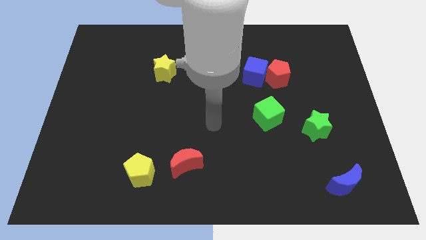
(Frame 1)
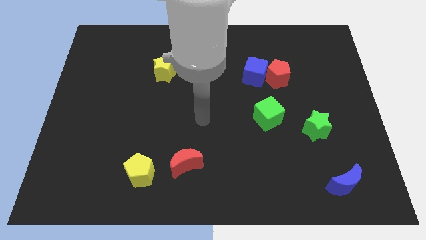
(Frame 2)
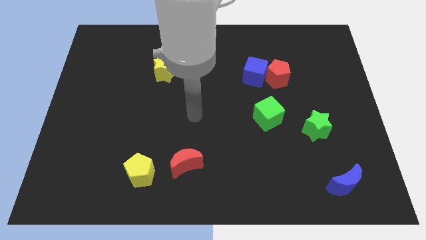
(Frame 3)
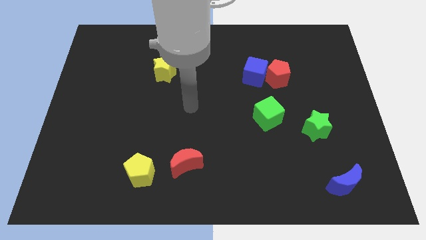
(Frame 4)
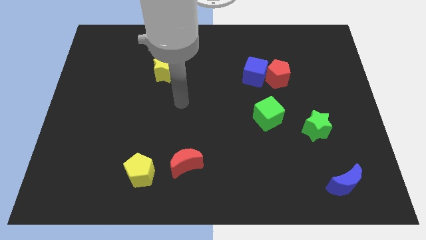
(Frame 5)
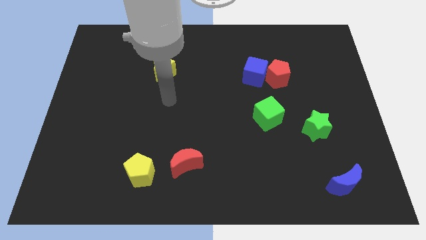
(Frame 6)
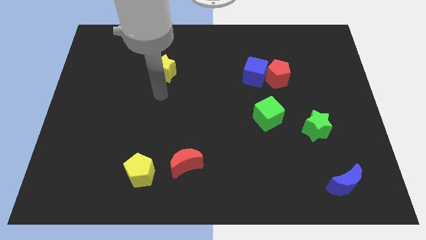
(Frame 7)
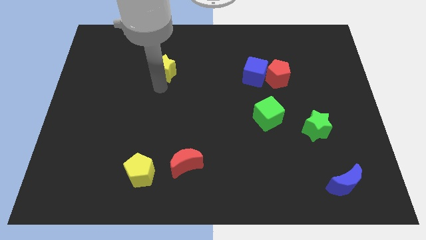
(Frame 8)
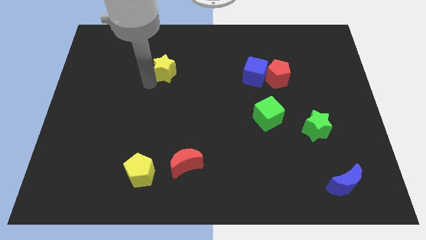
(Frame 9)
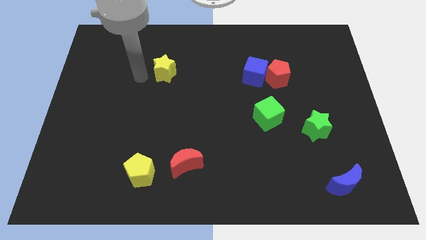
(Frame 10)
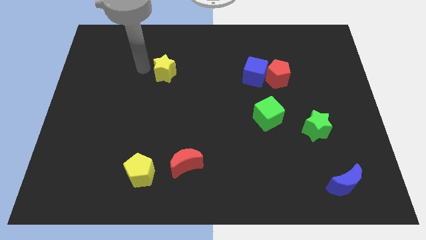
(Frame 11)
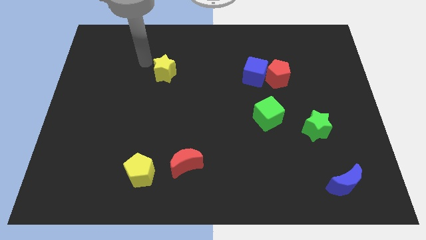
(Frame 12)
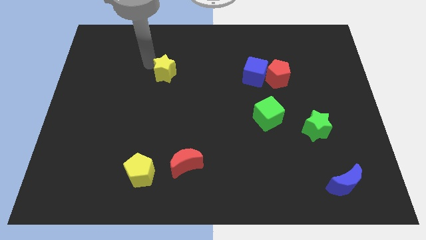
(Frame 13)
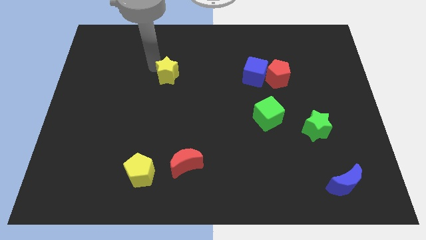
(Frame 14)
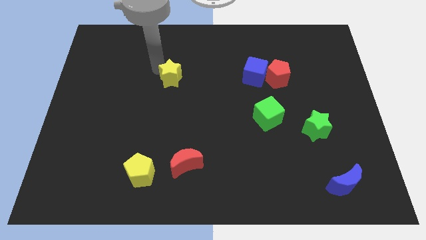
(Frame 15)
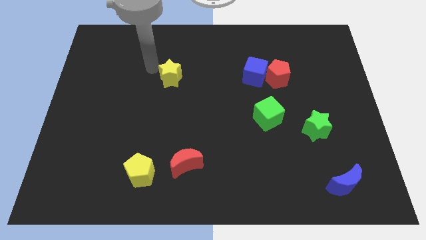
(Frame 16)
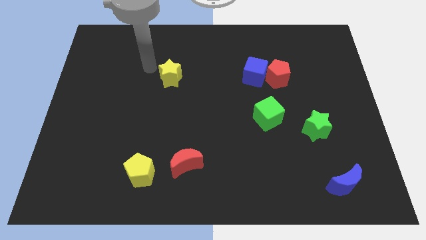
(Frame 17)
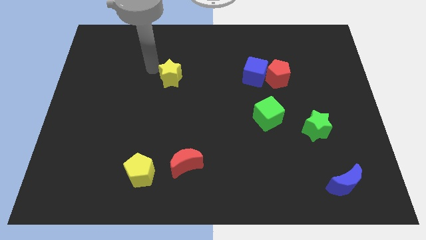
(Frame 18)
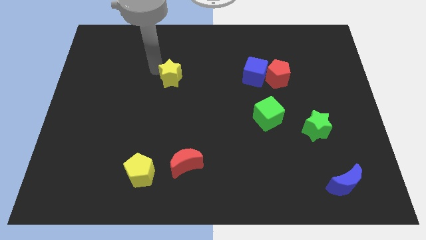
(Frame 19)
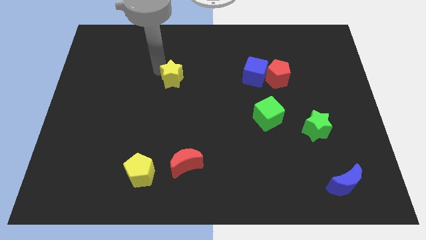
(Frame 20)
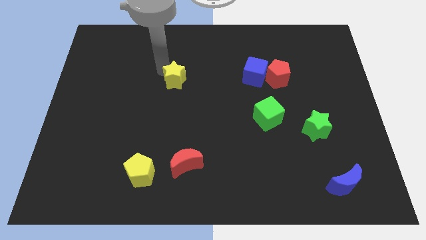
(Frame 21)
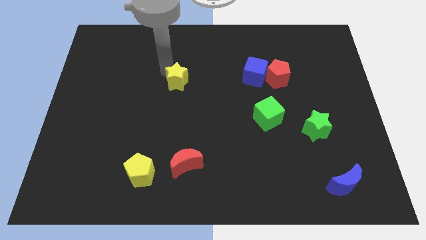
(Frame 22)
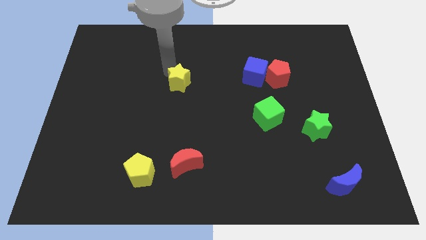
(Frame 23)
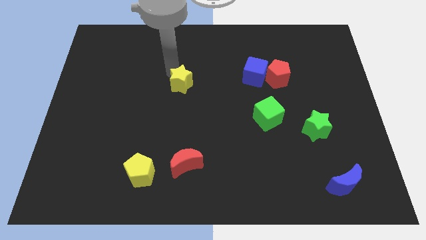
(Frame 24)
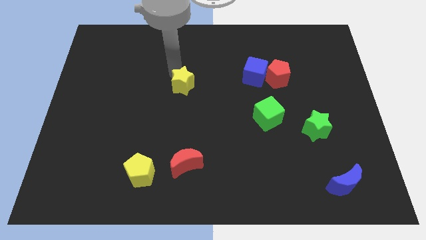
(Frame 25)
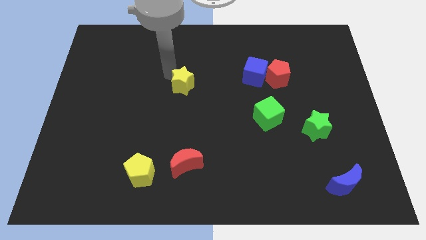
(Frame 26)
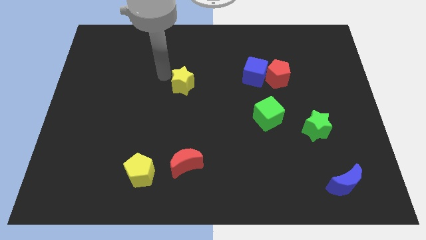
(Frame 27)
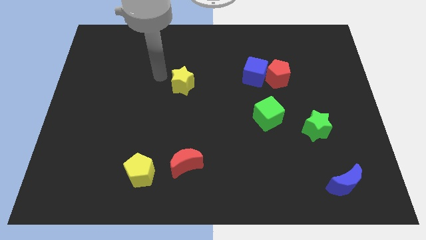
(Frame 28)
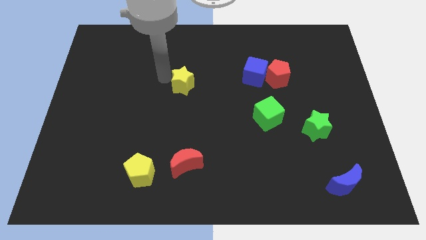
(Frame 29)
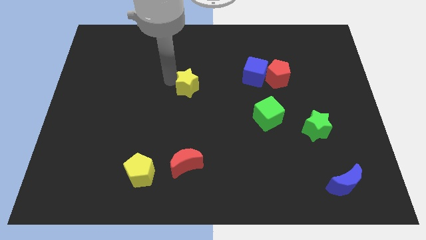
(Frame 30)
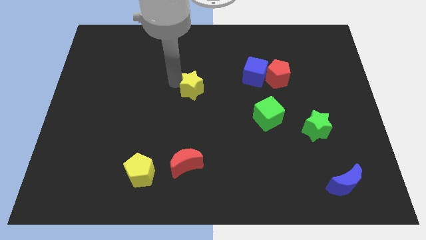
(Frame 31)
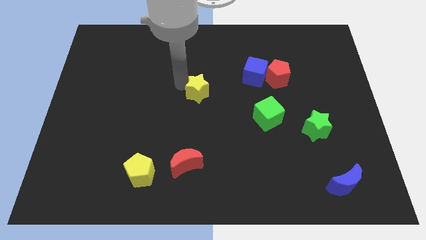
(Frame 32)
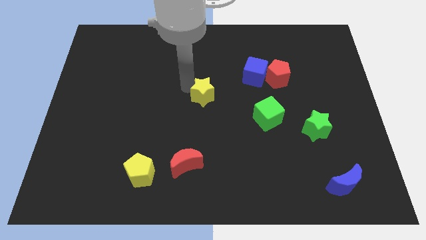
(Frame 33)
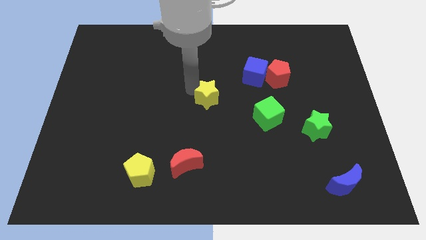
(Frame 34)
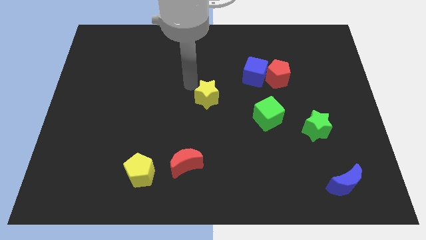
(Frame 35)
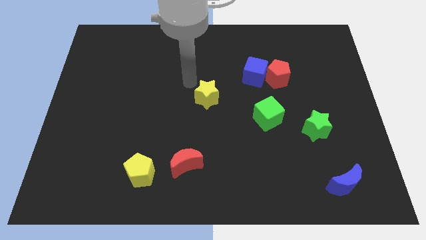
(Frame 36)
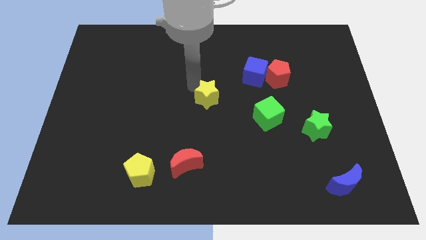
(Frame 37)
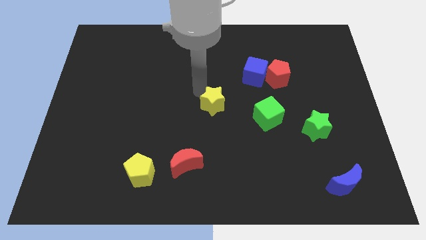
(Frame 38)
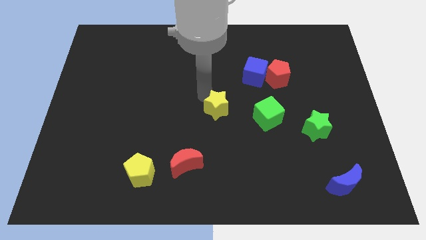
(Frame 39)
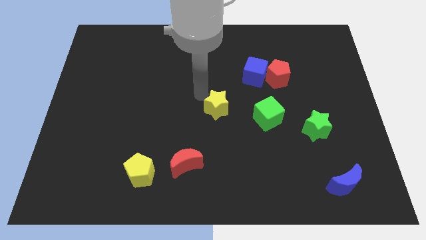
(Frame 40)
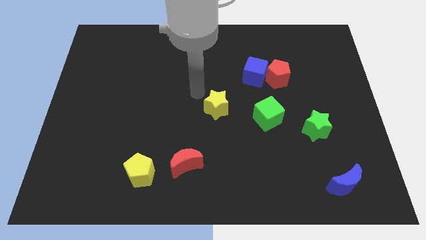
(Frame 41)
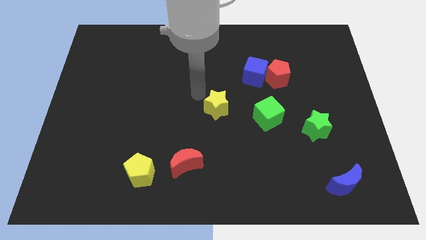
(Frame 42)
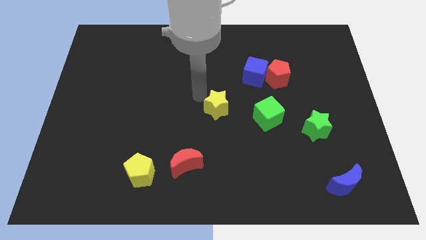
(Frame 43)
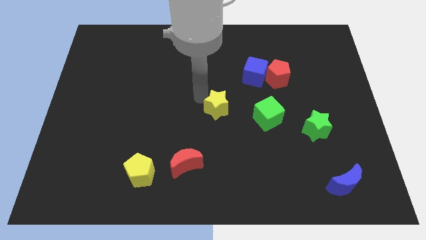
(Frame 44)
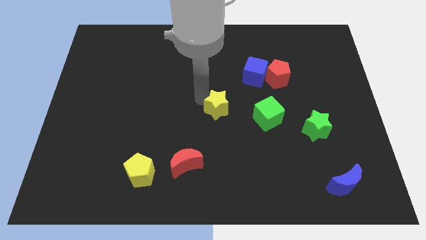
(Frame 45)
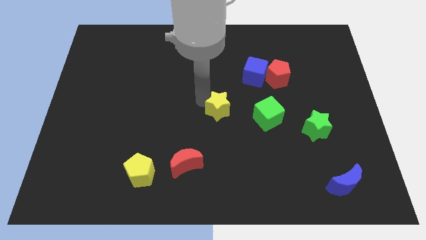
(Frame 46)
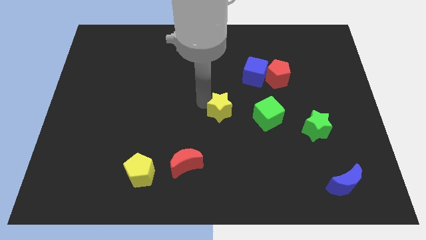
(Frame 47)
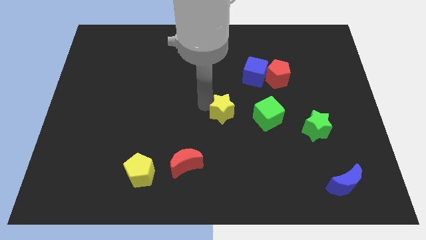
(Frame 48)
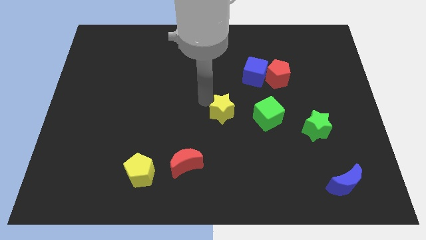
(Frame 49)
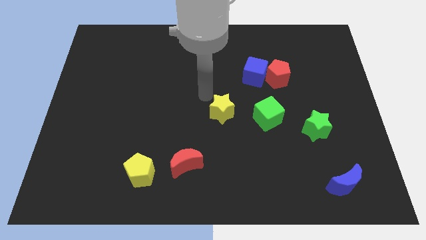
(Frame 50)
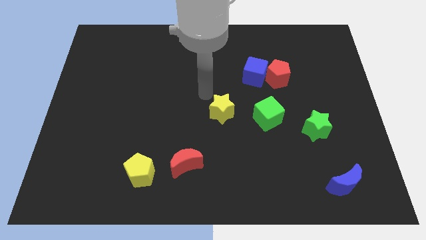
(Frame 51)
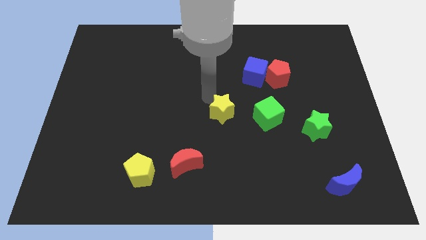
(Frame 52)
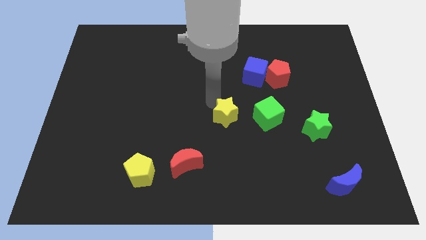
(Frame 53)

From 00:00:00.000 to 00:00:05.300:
push the yellow star down and then to the right

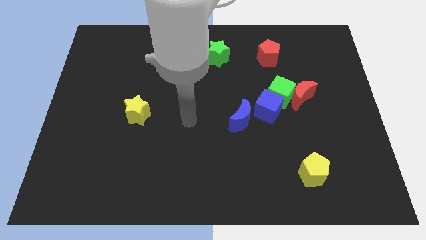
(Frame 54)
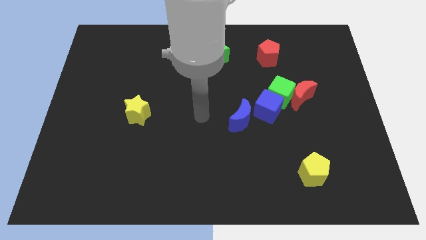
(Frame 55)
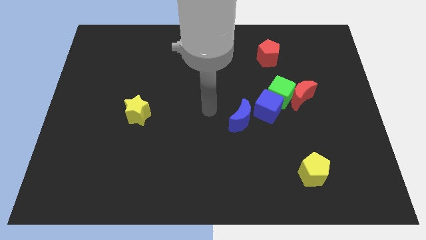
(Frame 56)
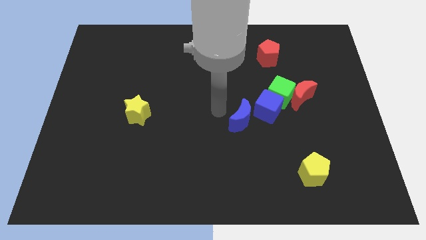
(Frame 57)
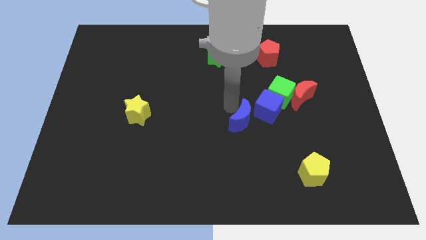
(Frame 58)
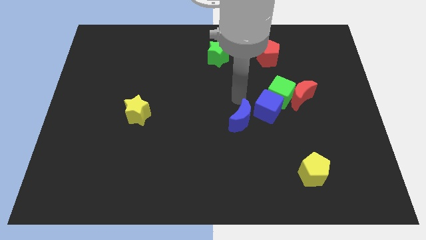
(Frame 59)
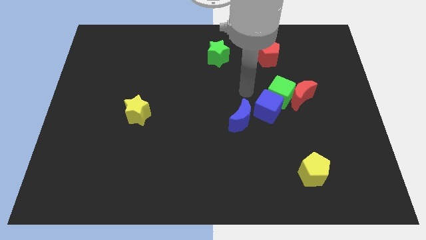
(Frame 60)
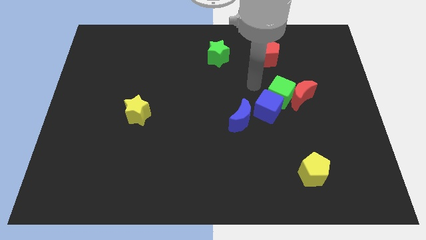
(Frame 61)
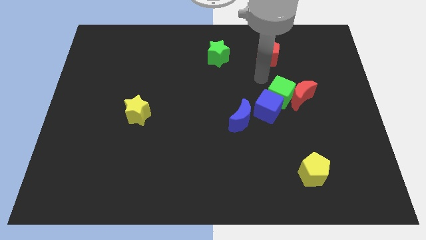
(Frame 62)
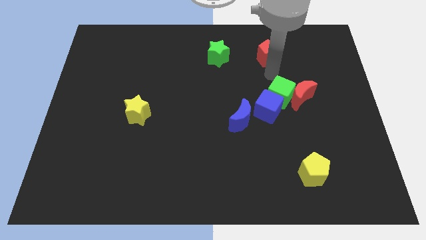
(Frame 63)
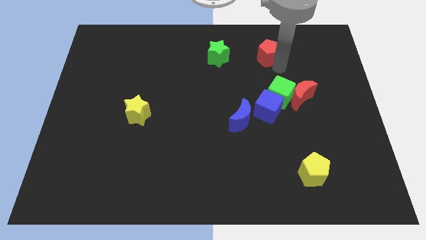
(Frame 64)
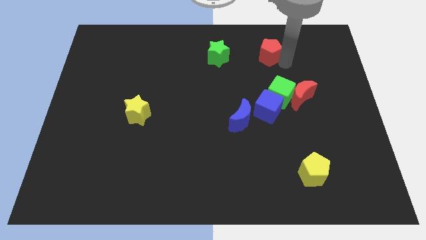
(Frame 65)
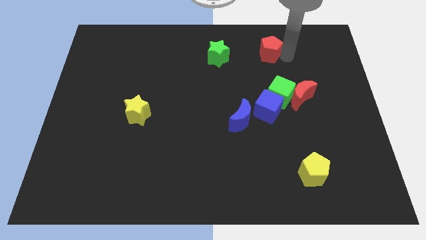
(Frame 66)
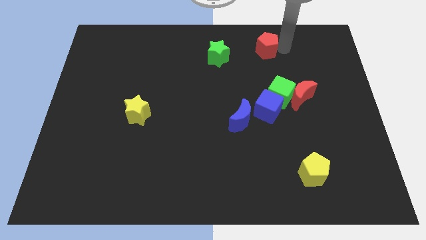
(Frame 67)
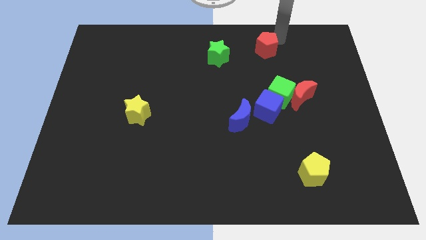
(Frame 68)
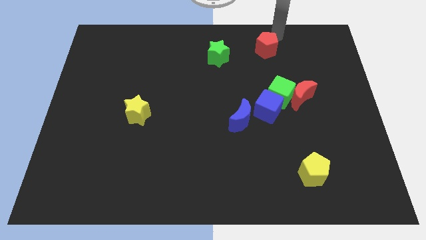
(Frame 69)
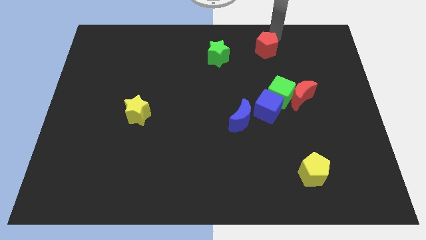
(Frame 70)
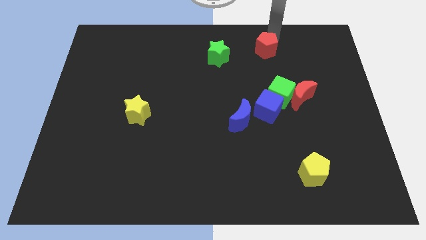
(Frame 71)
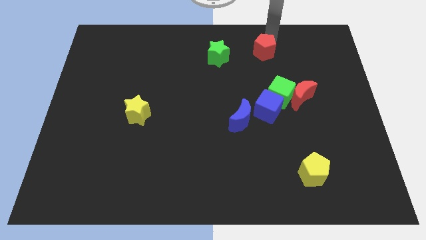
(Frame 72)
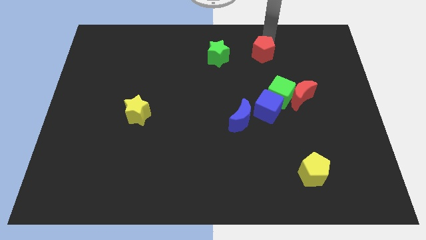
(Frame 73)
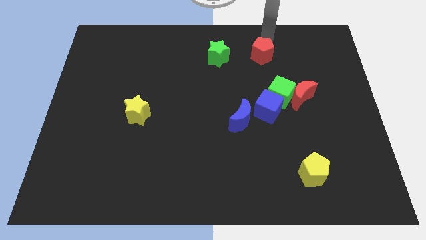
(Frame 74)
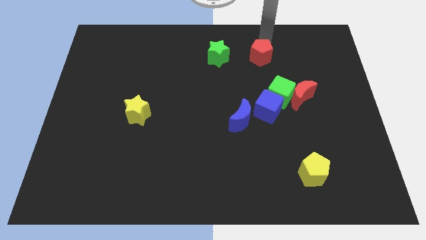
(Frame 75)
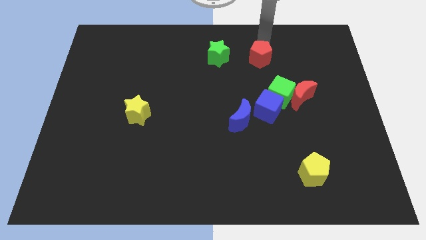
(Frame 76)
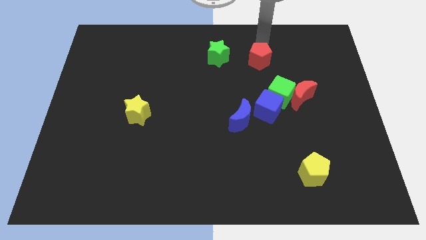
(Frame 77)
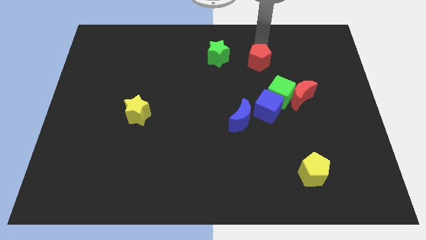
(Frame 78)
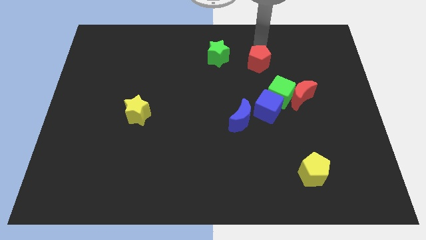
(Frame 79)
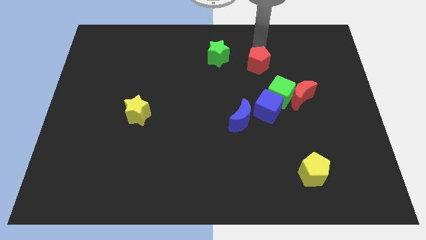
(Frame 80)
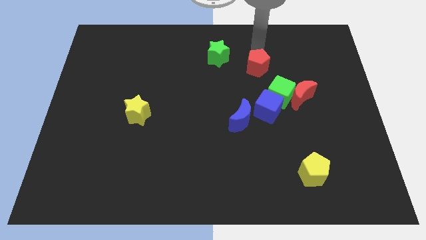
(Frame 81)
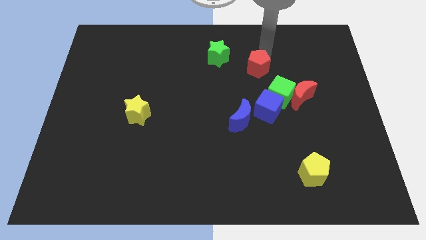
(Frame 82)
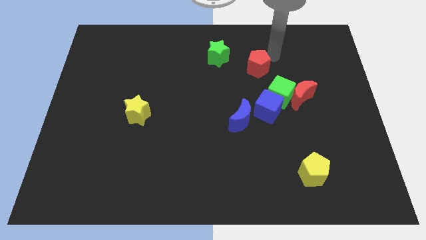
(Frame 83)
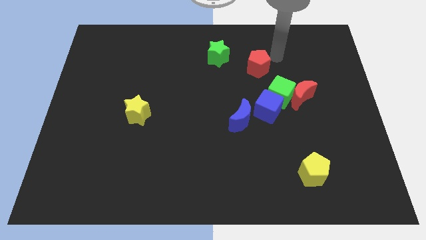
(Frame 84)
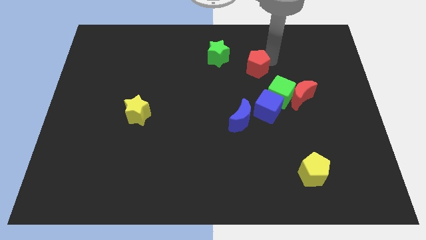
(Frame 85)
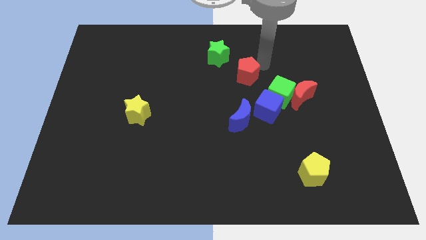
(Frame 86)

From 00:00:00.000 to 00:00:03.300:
move the red pentagon downwards and then to the left a little
